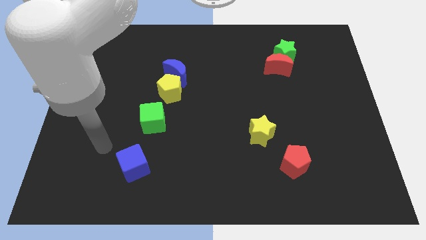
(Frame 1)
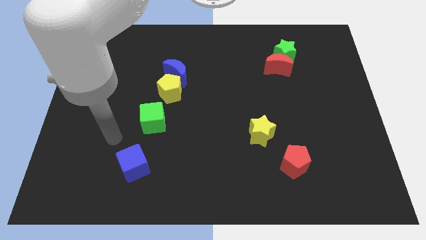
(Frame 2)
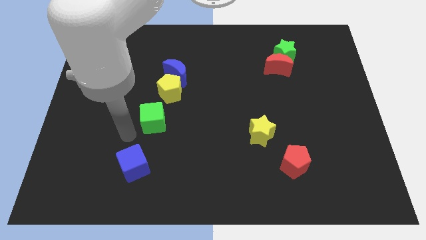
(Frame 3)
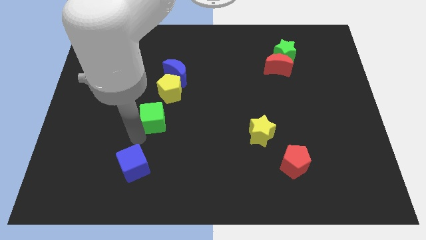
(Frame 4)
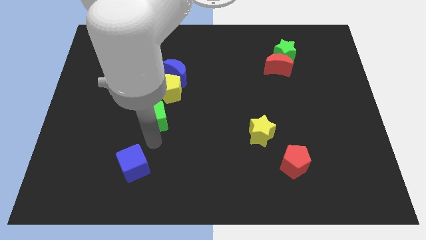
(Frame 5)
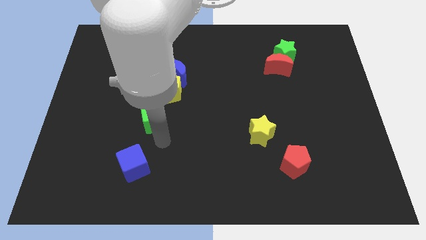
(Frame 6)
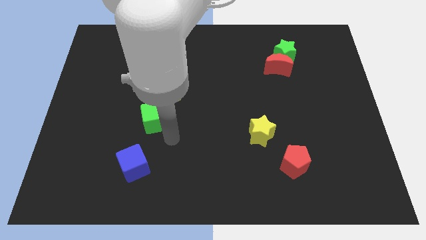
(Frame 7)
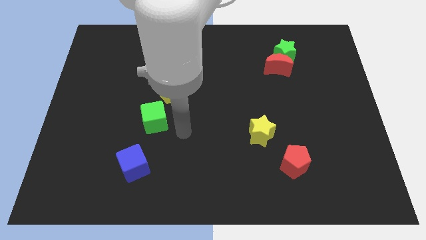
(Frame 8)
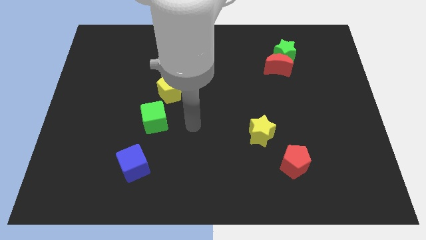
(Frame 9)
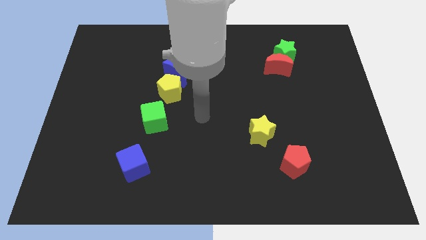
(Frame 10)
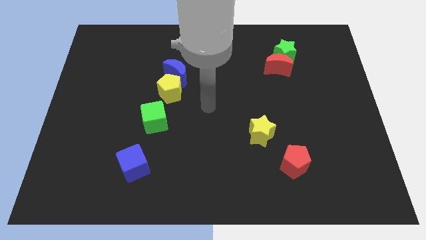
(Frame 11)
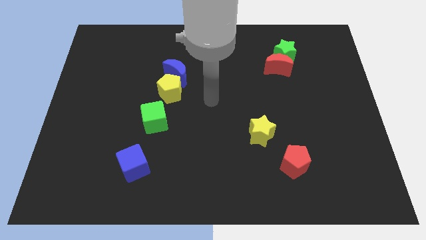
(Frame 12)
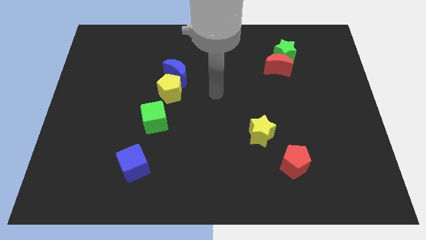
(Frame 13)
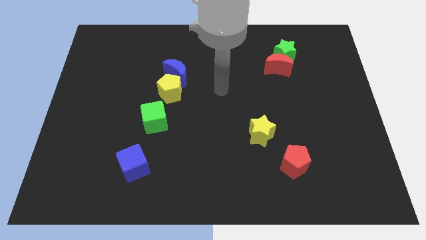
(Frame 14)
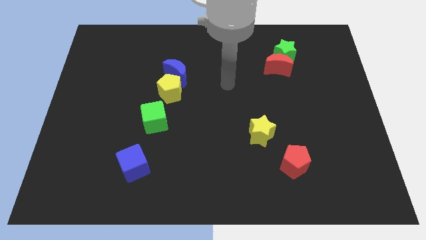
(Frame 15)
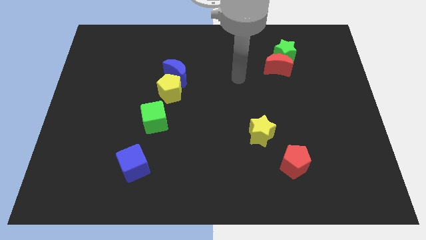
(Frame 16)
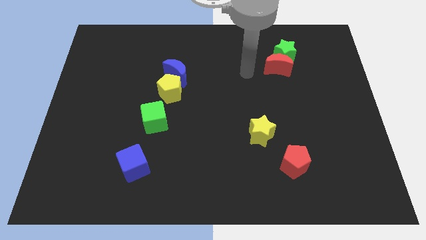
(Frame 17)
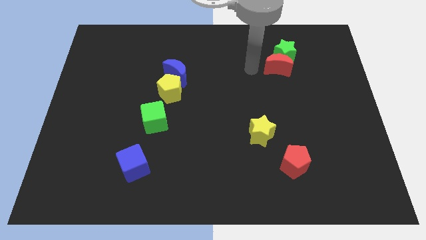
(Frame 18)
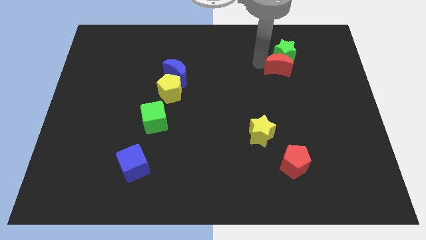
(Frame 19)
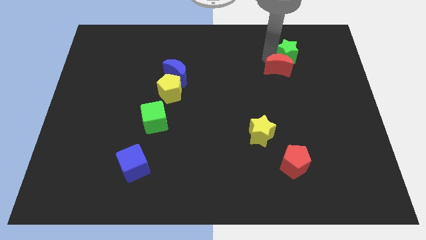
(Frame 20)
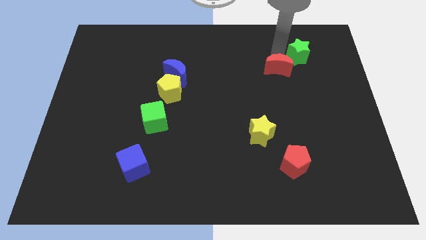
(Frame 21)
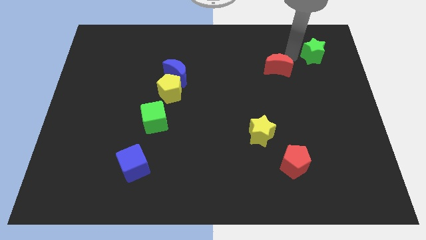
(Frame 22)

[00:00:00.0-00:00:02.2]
move the red moon away from the green star

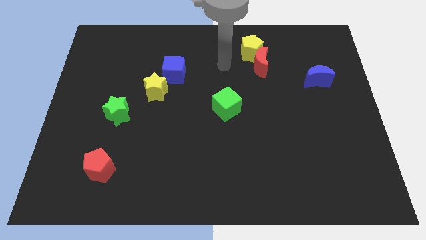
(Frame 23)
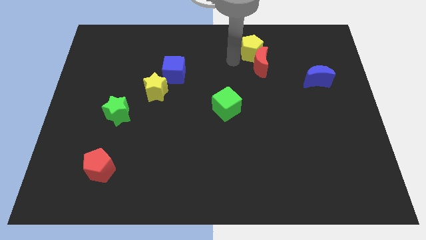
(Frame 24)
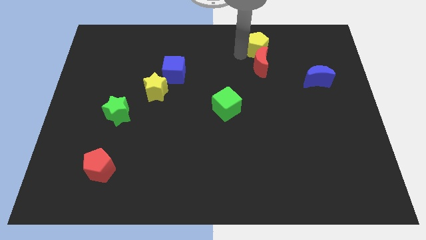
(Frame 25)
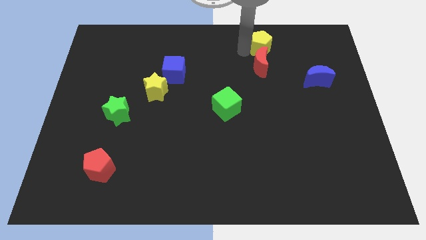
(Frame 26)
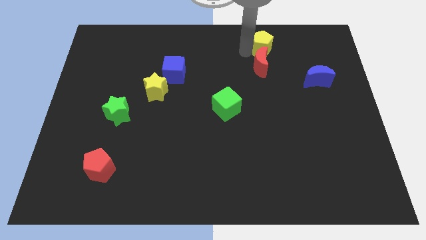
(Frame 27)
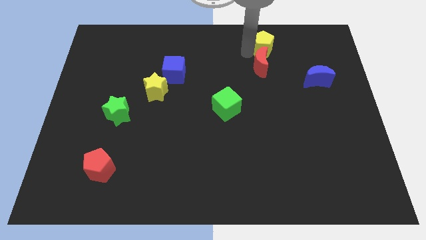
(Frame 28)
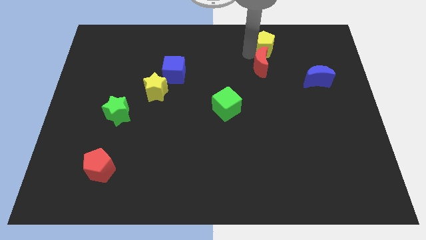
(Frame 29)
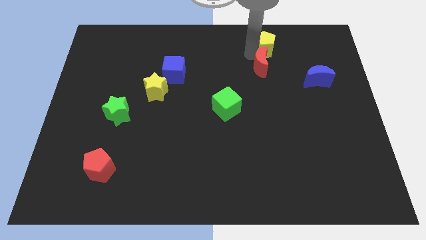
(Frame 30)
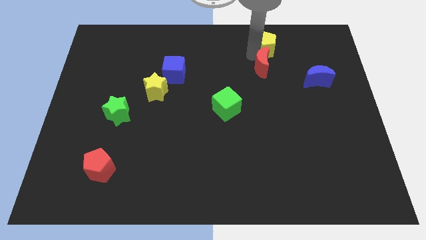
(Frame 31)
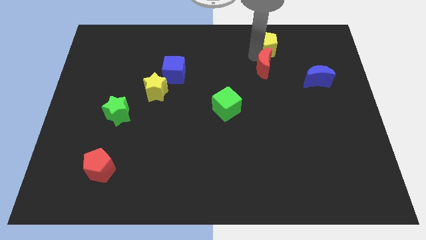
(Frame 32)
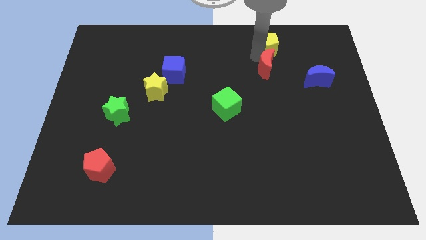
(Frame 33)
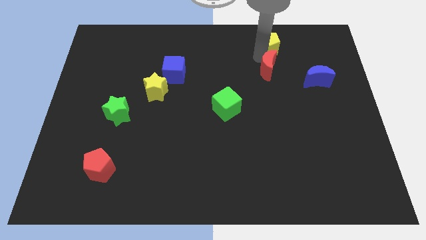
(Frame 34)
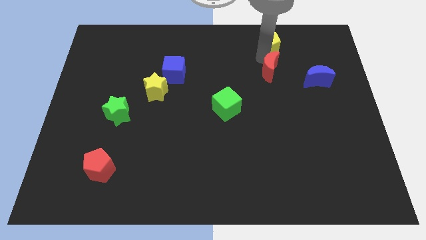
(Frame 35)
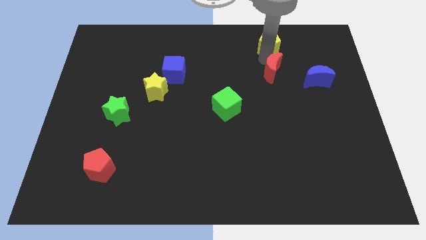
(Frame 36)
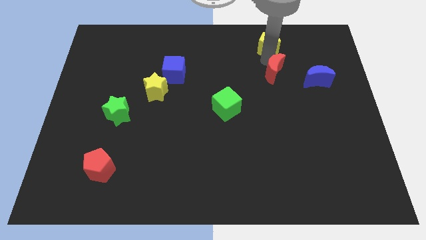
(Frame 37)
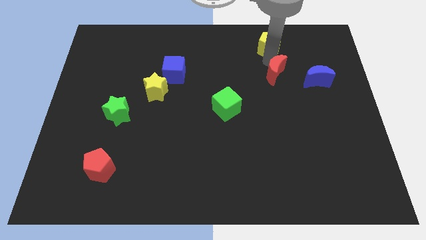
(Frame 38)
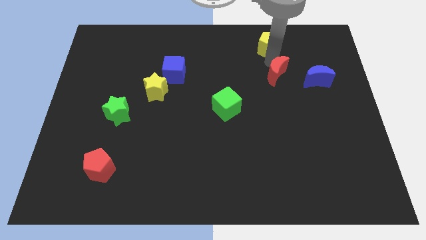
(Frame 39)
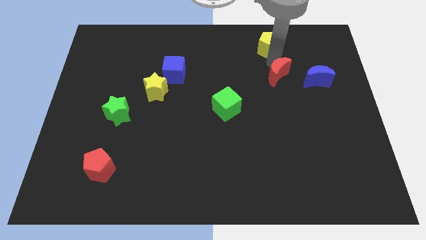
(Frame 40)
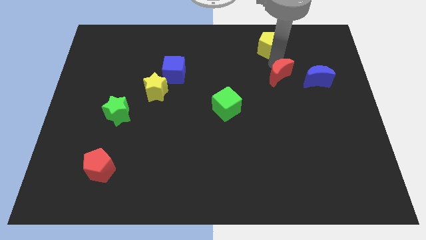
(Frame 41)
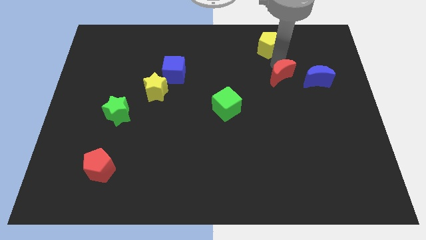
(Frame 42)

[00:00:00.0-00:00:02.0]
move the red moon away from the yellow pentagon

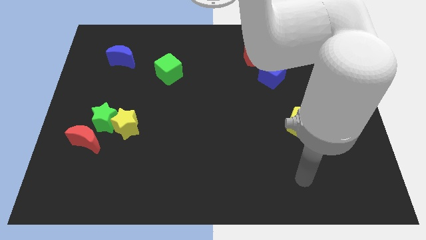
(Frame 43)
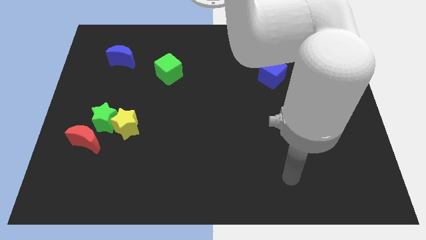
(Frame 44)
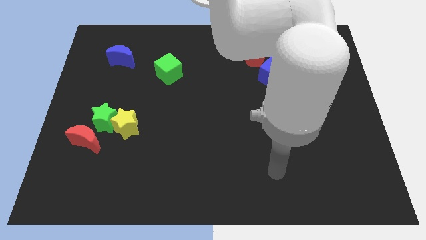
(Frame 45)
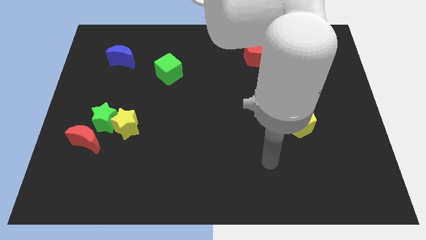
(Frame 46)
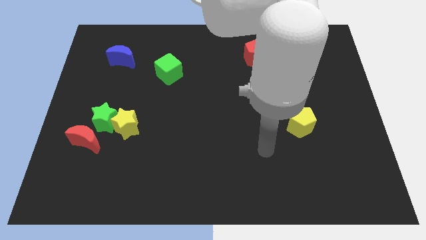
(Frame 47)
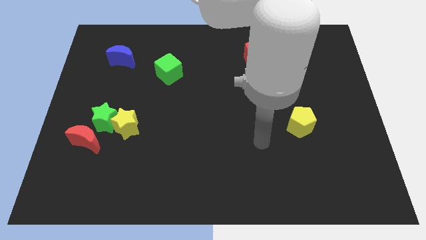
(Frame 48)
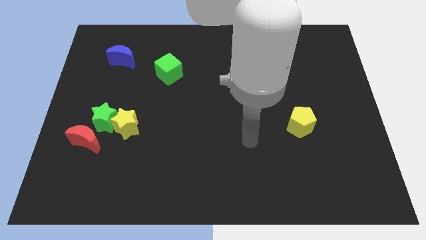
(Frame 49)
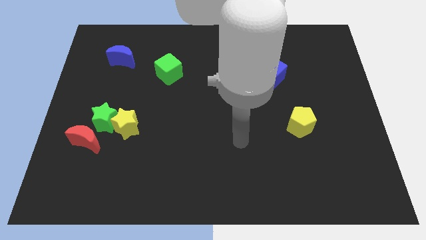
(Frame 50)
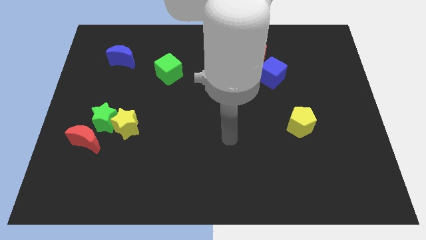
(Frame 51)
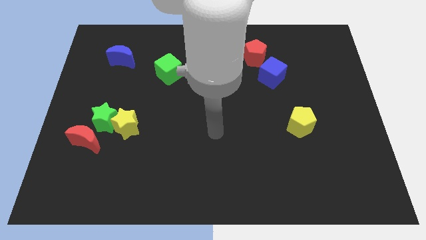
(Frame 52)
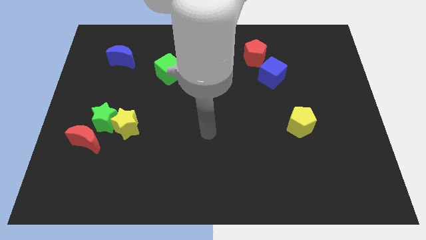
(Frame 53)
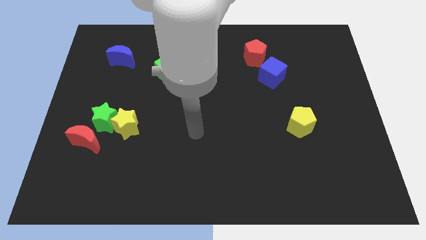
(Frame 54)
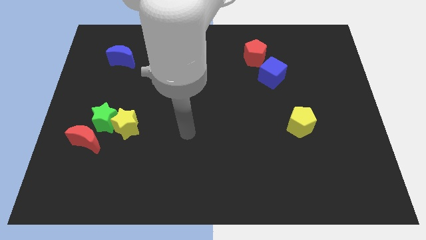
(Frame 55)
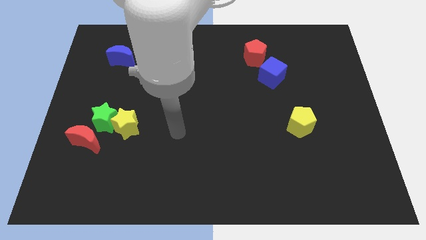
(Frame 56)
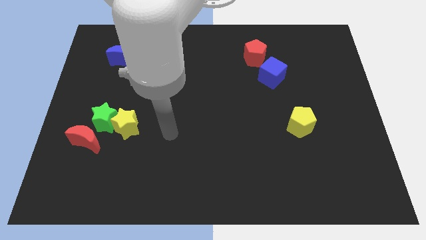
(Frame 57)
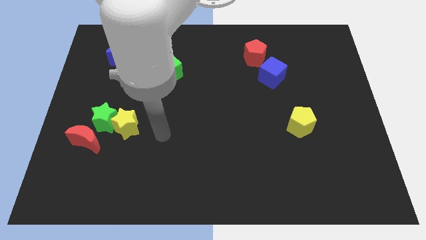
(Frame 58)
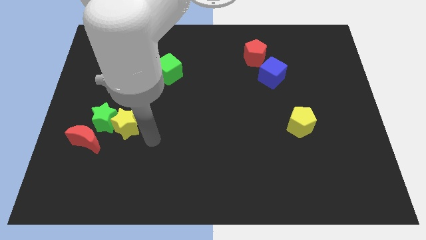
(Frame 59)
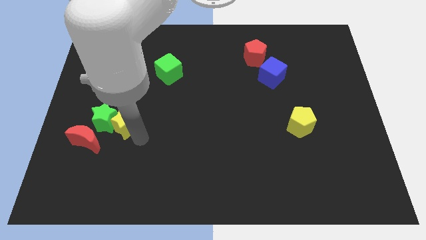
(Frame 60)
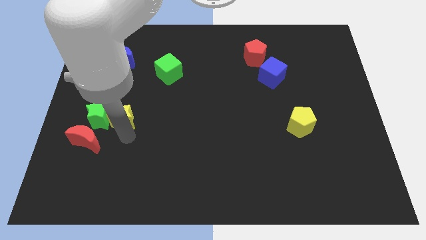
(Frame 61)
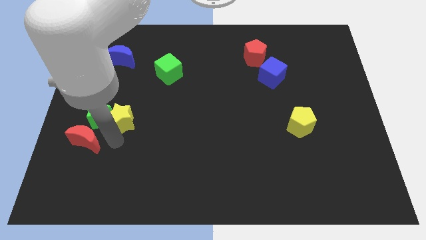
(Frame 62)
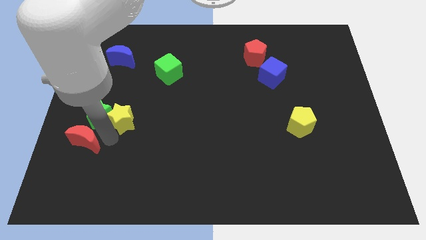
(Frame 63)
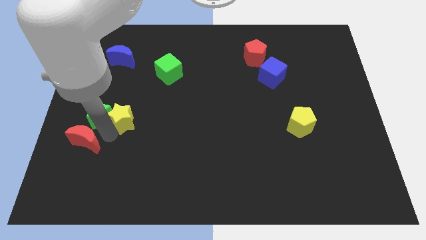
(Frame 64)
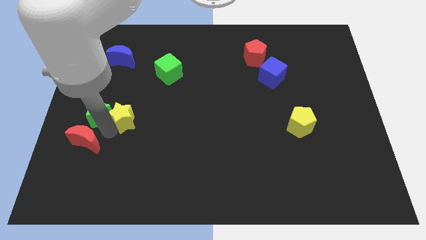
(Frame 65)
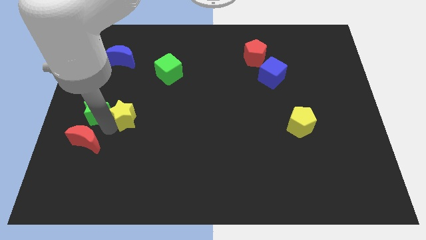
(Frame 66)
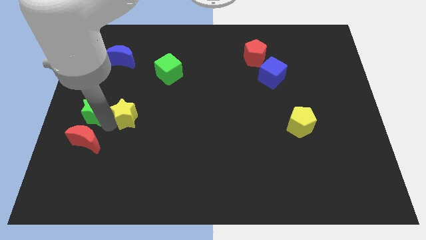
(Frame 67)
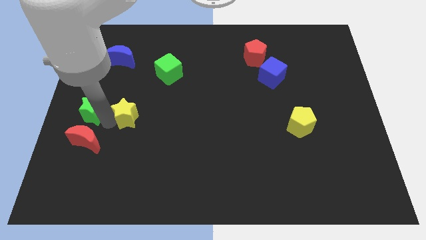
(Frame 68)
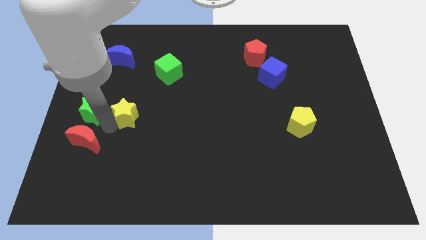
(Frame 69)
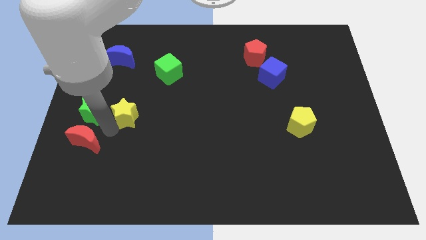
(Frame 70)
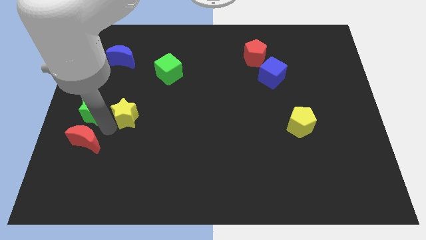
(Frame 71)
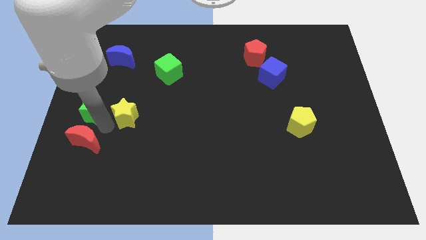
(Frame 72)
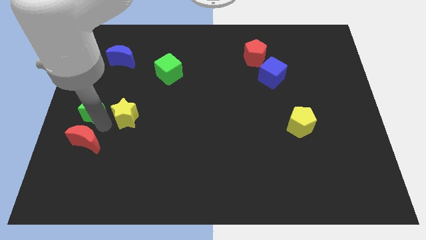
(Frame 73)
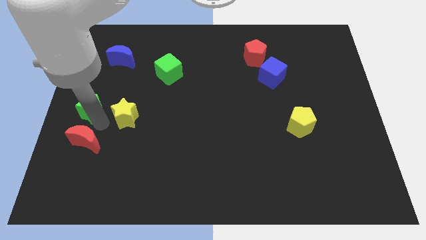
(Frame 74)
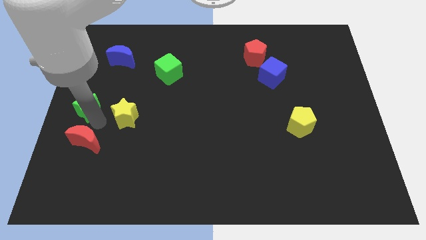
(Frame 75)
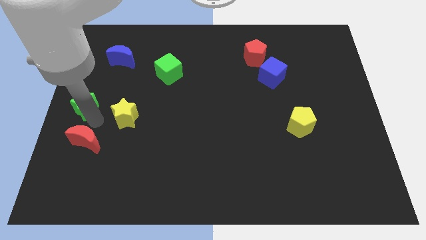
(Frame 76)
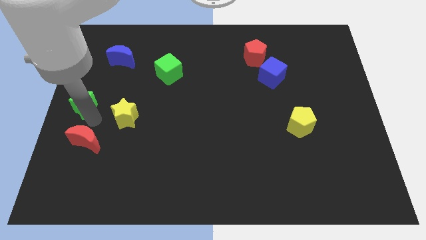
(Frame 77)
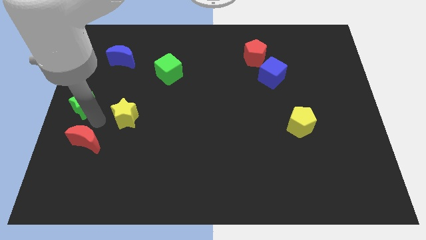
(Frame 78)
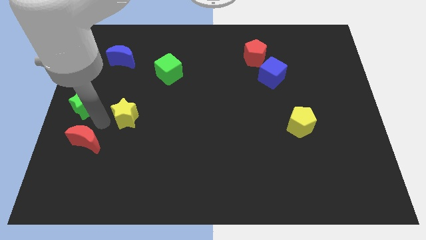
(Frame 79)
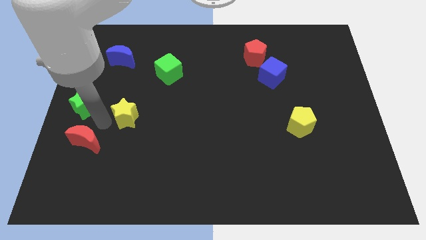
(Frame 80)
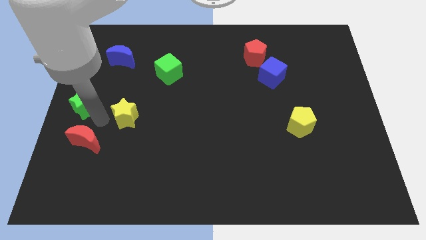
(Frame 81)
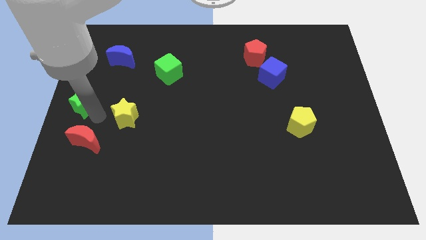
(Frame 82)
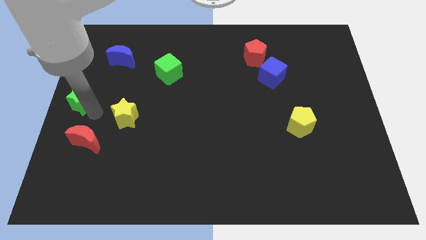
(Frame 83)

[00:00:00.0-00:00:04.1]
move the green star away from the yellow star and red moon

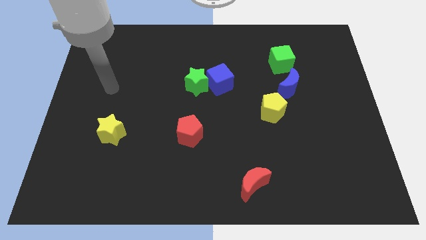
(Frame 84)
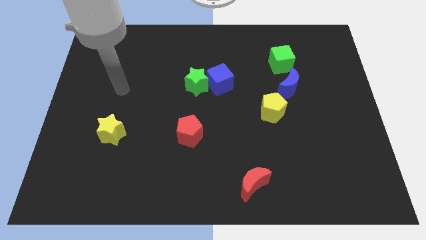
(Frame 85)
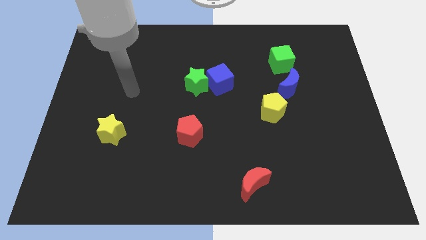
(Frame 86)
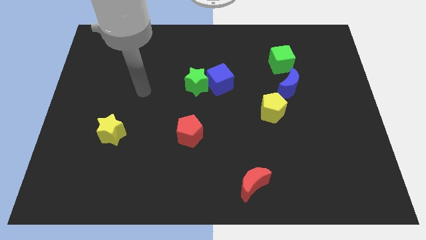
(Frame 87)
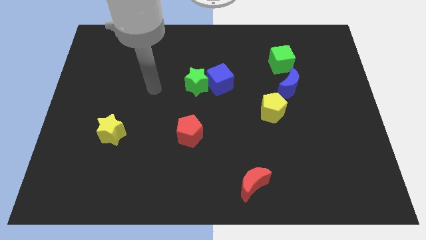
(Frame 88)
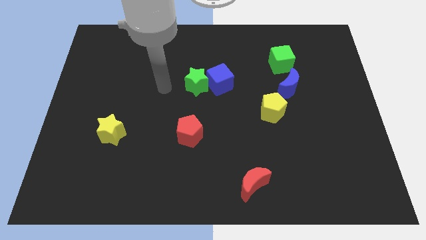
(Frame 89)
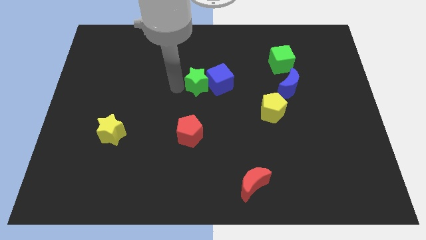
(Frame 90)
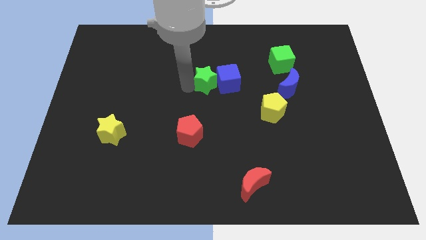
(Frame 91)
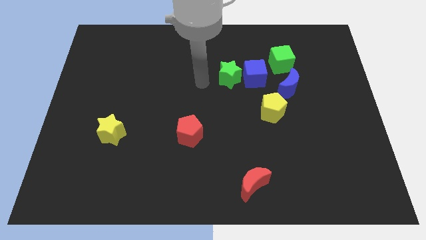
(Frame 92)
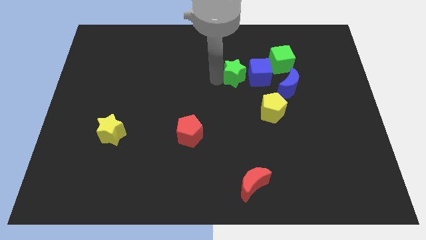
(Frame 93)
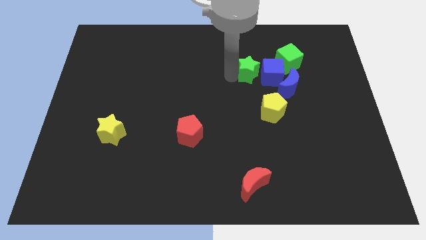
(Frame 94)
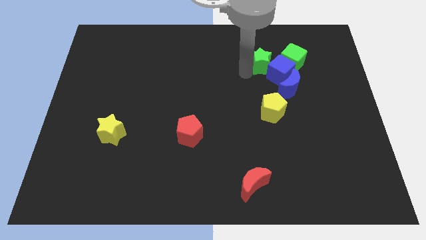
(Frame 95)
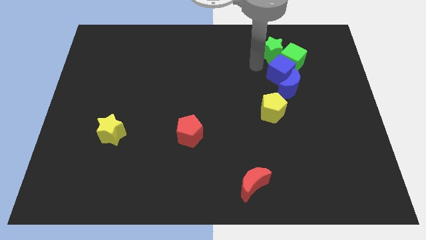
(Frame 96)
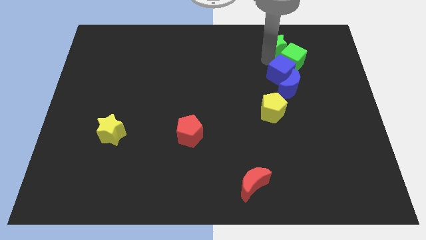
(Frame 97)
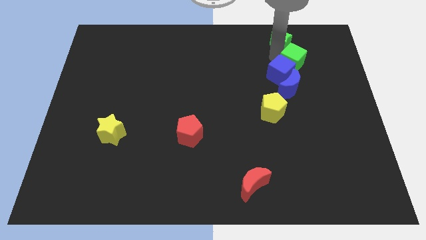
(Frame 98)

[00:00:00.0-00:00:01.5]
move the blue cube away from the green star
